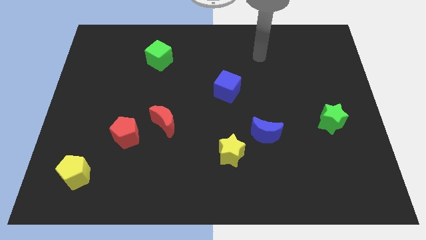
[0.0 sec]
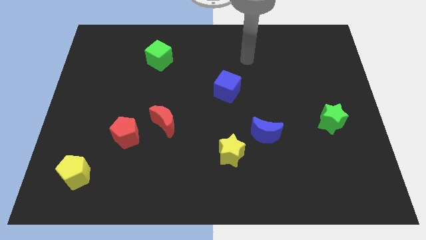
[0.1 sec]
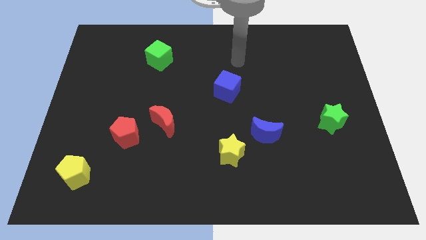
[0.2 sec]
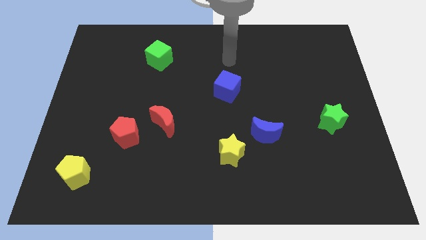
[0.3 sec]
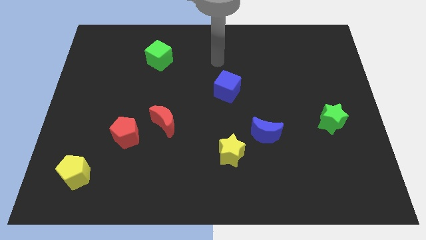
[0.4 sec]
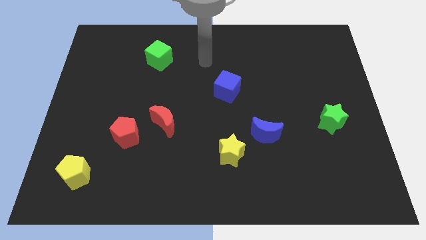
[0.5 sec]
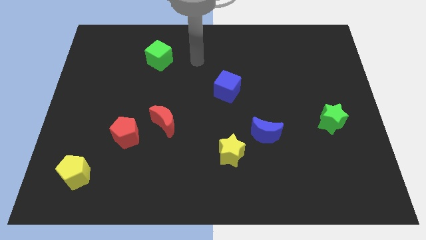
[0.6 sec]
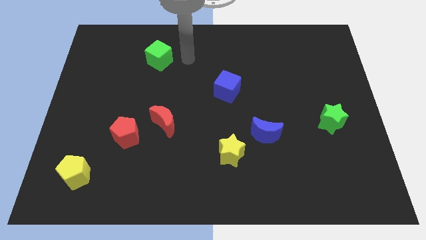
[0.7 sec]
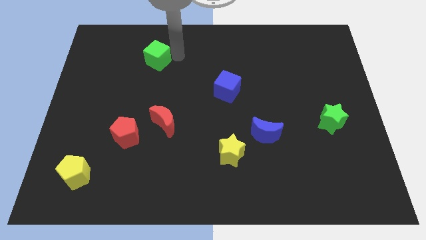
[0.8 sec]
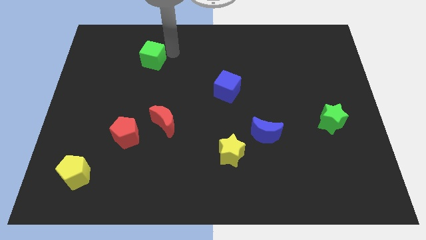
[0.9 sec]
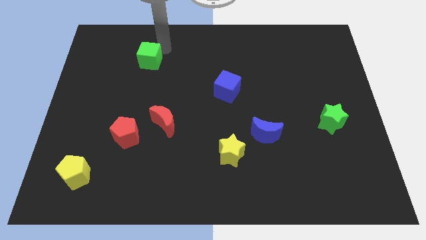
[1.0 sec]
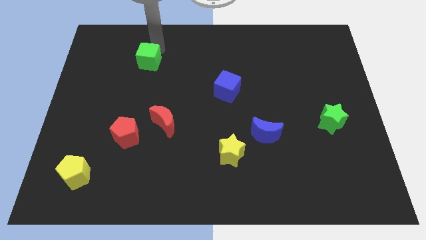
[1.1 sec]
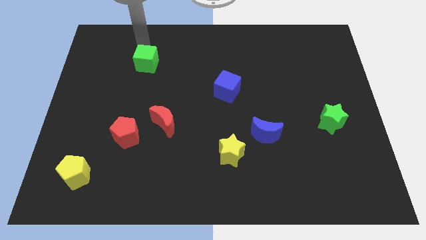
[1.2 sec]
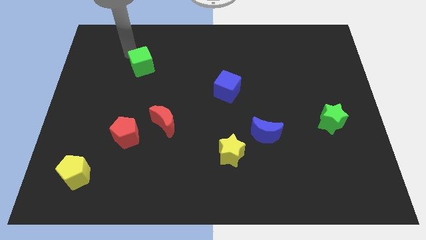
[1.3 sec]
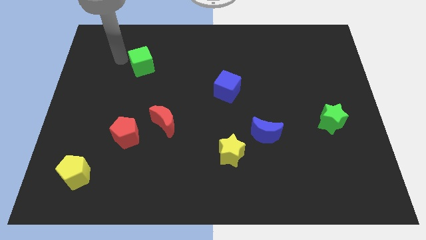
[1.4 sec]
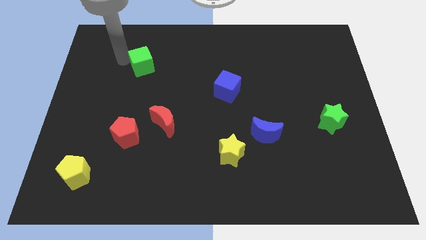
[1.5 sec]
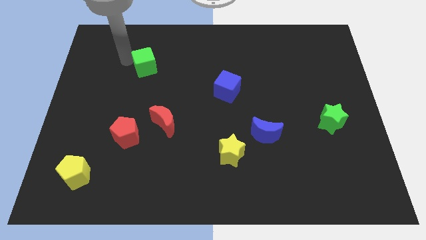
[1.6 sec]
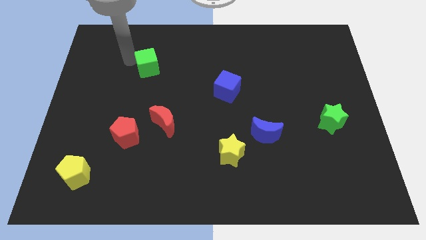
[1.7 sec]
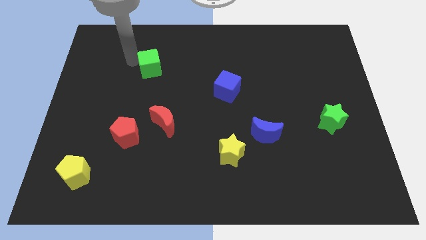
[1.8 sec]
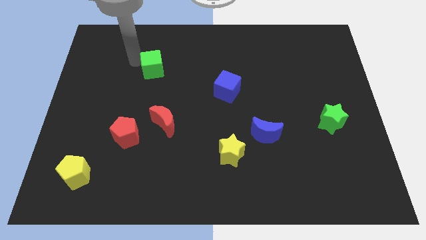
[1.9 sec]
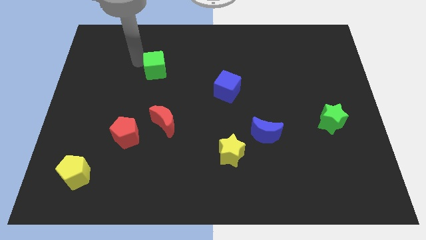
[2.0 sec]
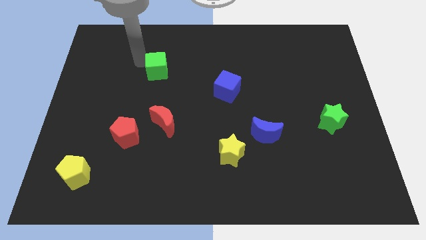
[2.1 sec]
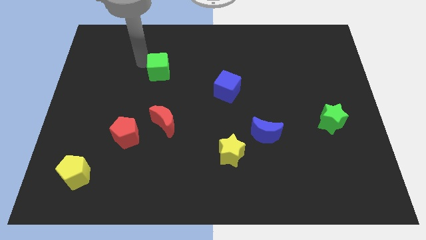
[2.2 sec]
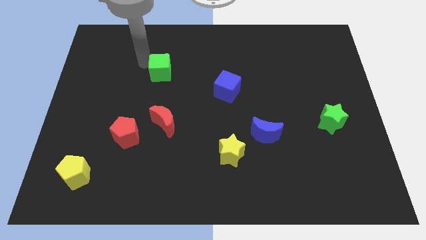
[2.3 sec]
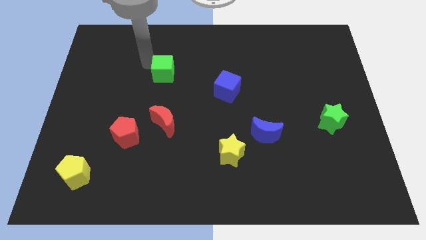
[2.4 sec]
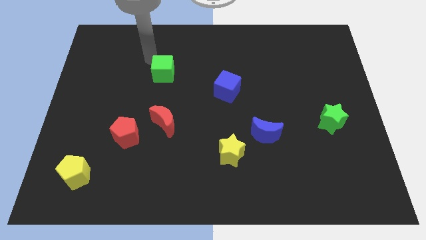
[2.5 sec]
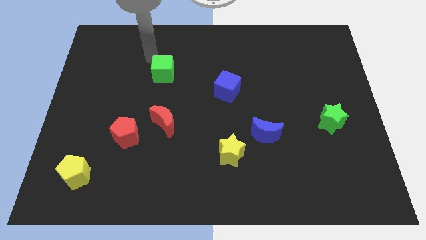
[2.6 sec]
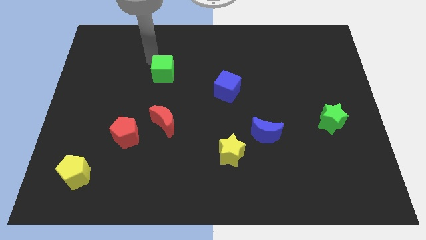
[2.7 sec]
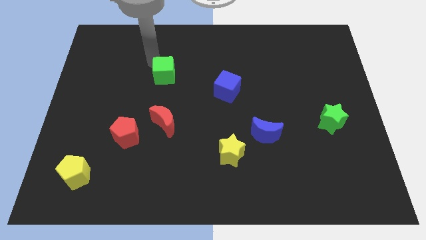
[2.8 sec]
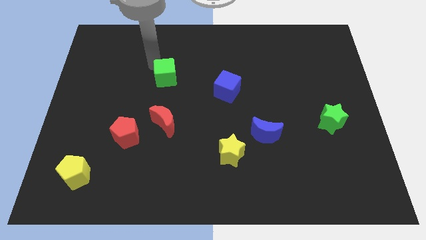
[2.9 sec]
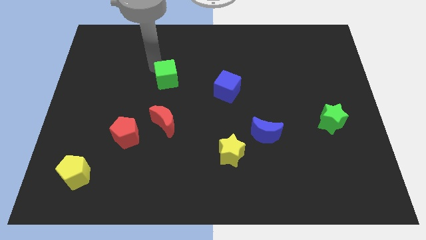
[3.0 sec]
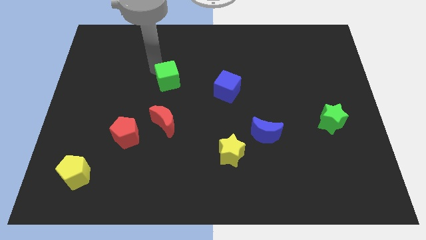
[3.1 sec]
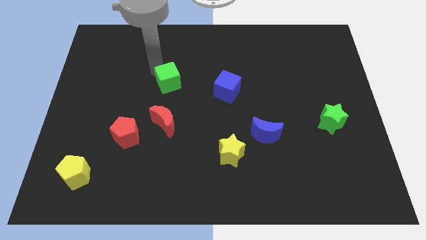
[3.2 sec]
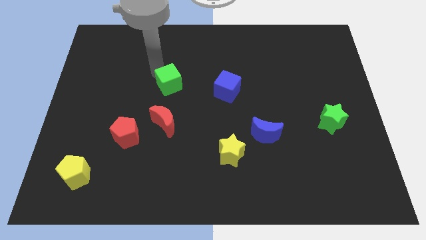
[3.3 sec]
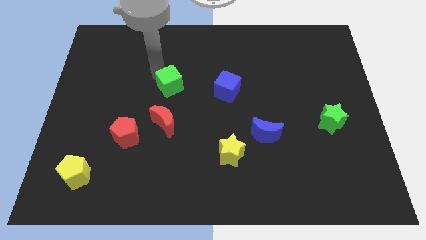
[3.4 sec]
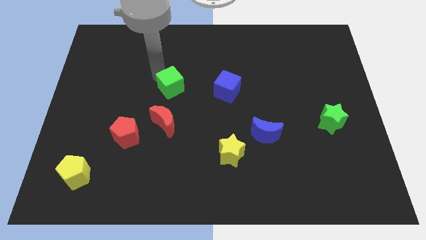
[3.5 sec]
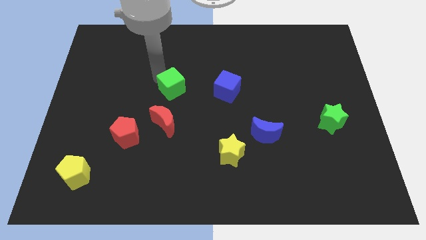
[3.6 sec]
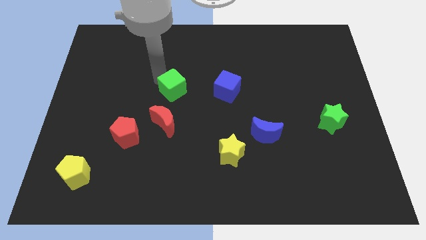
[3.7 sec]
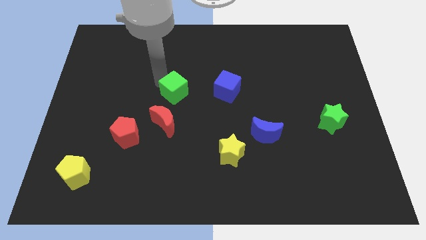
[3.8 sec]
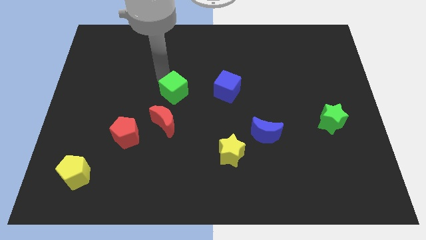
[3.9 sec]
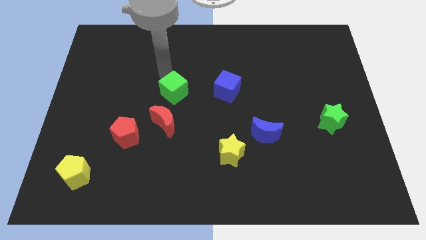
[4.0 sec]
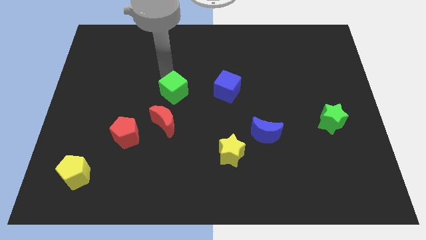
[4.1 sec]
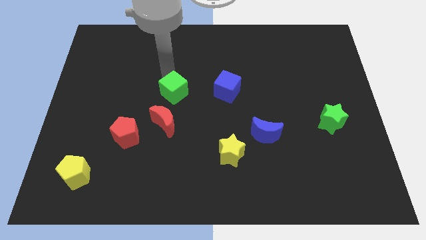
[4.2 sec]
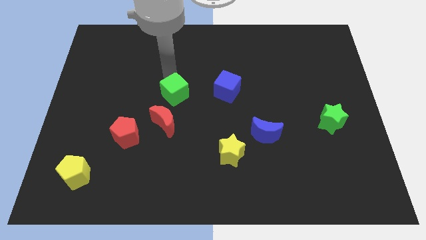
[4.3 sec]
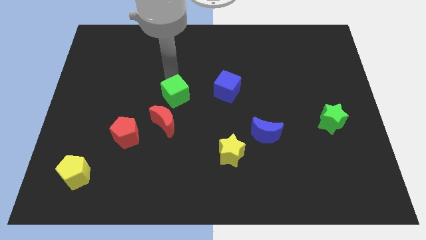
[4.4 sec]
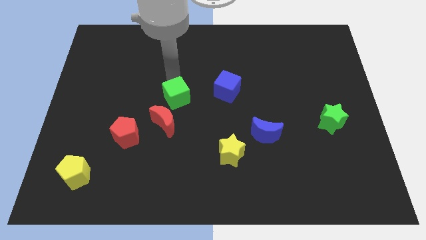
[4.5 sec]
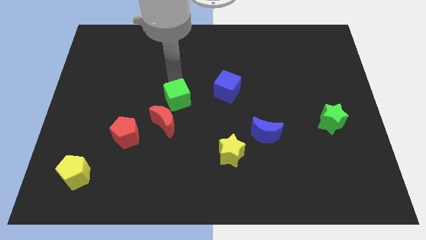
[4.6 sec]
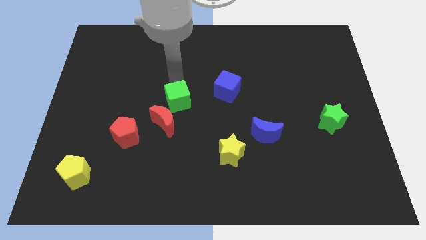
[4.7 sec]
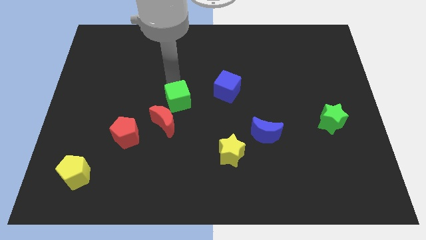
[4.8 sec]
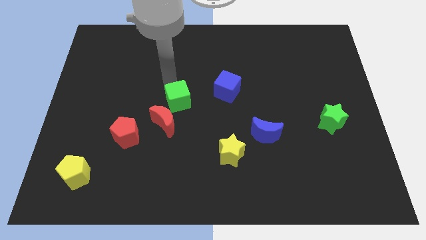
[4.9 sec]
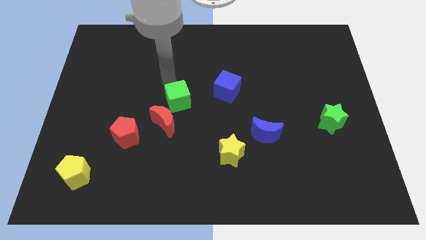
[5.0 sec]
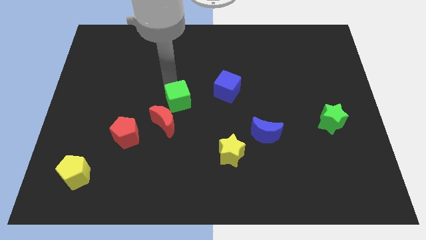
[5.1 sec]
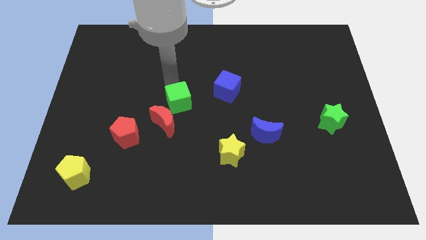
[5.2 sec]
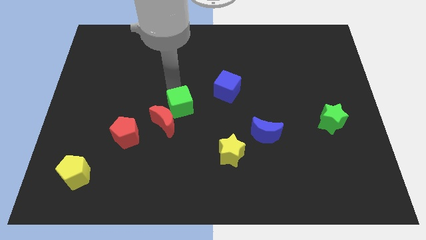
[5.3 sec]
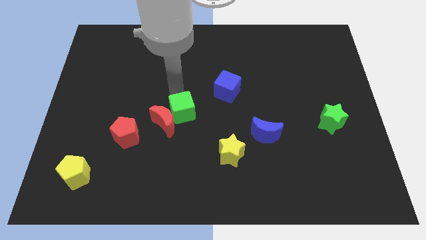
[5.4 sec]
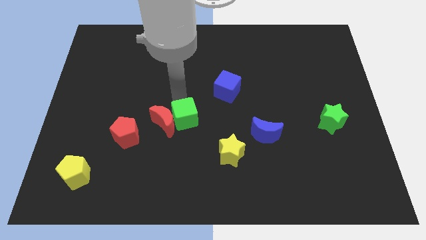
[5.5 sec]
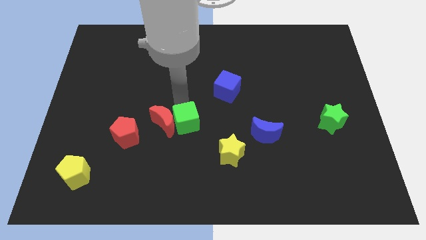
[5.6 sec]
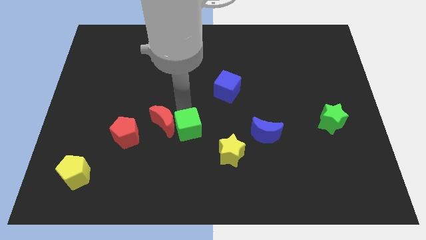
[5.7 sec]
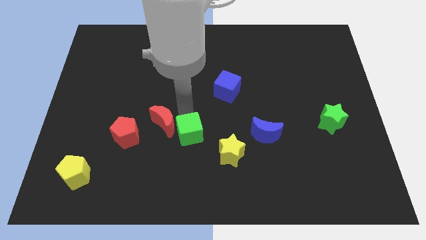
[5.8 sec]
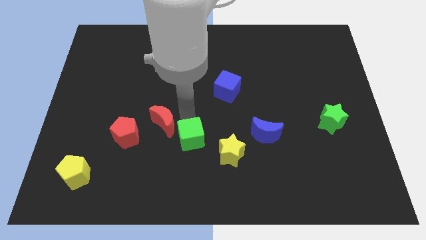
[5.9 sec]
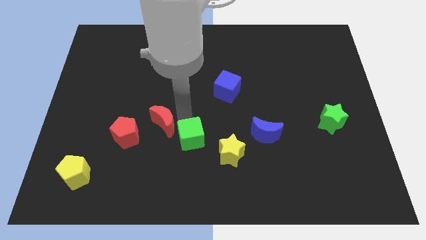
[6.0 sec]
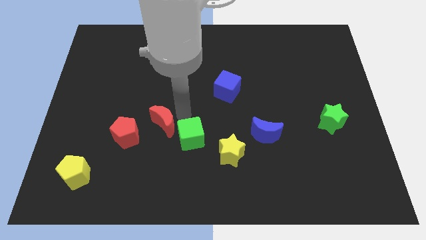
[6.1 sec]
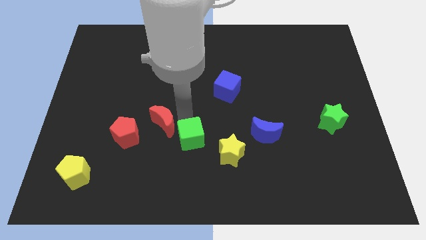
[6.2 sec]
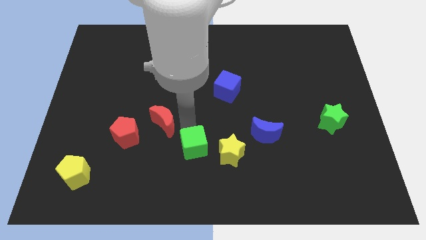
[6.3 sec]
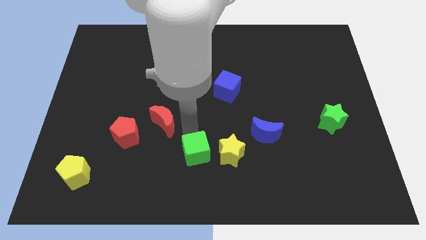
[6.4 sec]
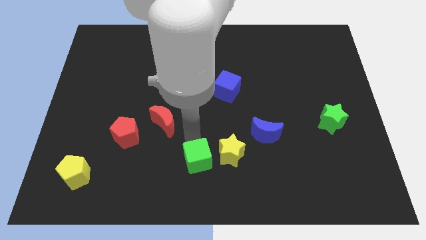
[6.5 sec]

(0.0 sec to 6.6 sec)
put the green cube to the bottom left side of the yellow star

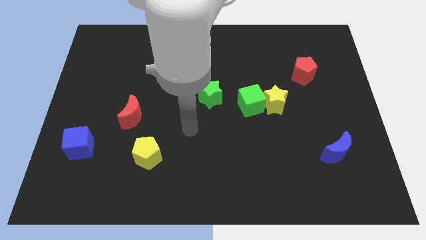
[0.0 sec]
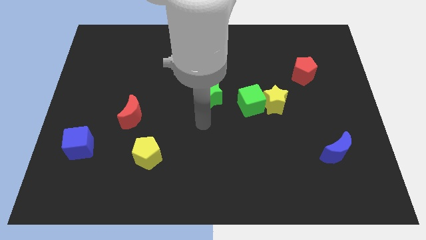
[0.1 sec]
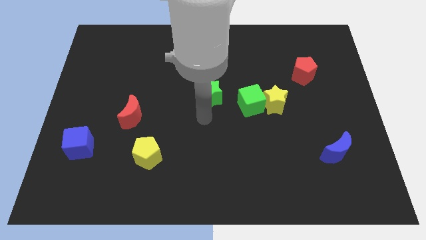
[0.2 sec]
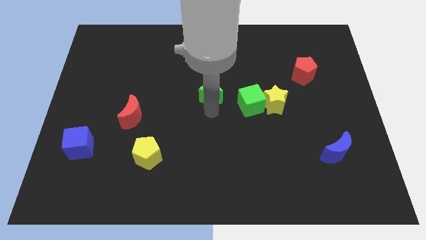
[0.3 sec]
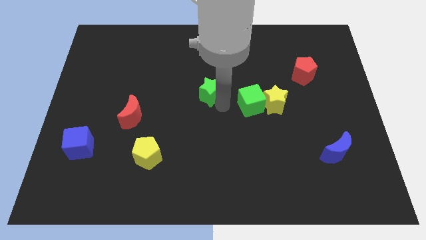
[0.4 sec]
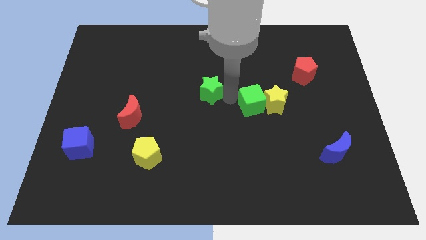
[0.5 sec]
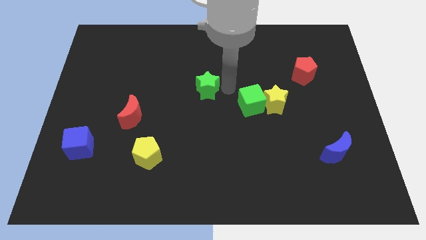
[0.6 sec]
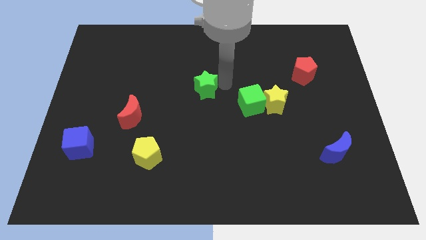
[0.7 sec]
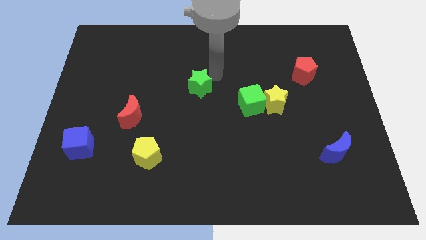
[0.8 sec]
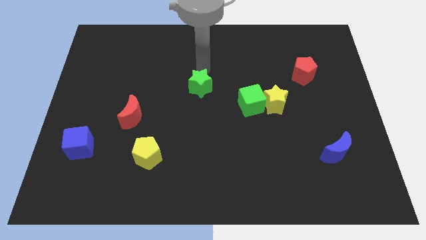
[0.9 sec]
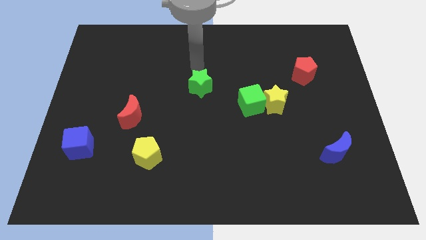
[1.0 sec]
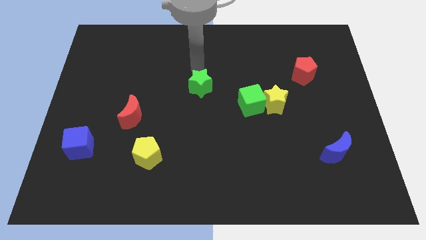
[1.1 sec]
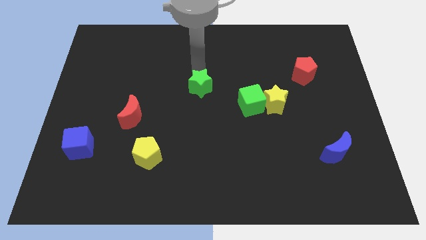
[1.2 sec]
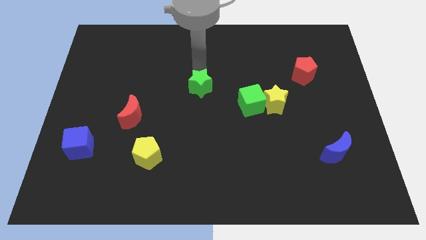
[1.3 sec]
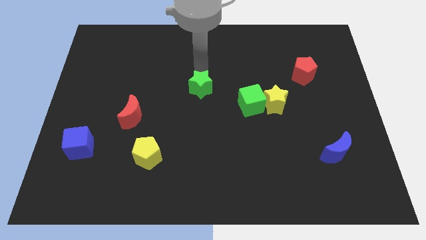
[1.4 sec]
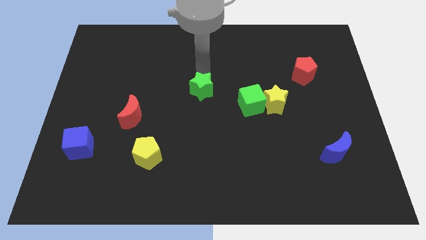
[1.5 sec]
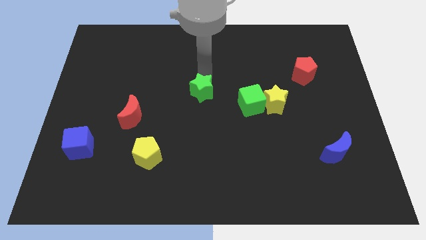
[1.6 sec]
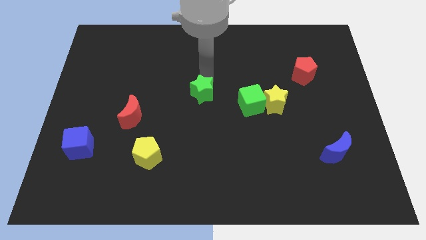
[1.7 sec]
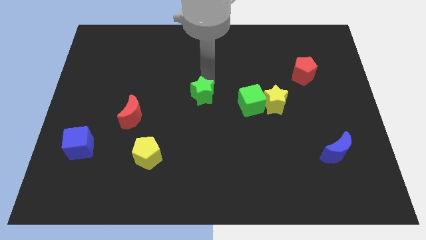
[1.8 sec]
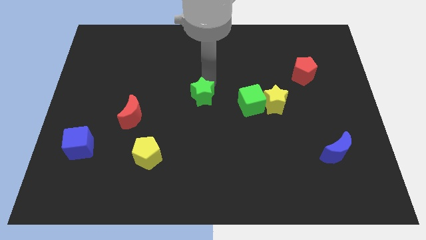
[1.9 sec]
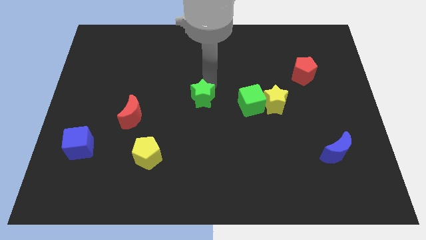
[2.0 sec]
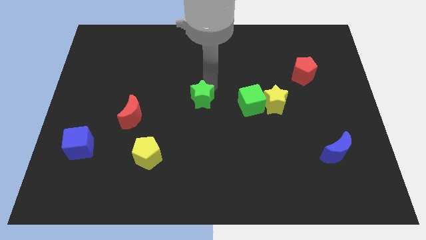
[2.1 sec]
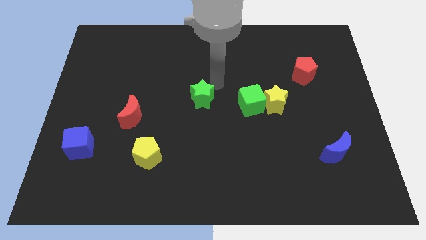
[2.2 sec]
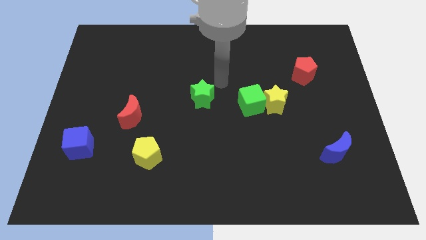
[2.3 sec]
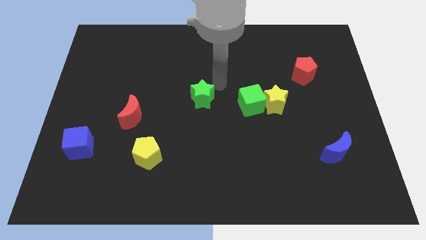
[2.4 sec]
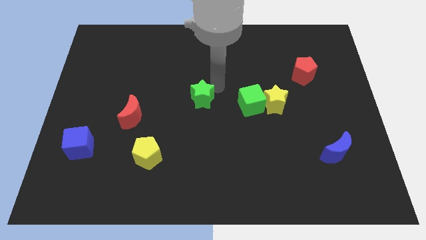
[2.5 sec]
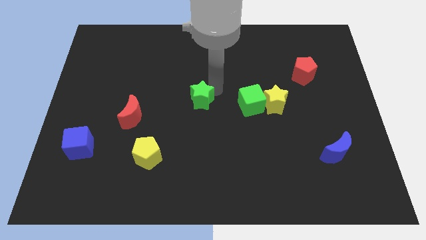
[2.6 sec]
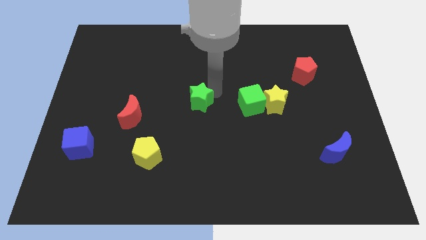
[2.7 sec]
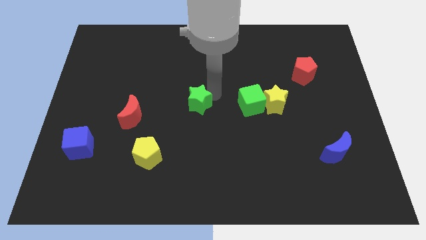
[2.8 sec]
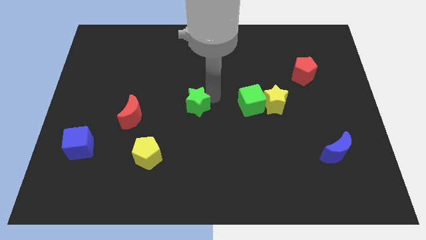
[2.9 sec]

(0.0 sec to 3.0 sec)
slide the green star just right of the red moon
